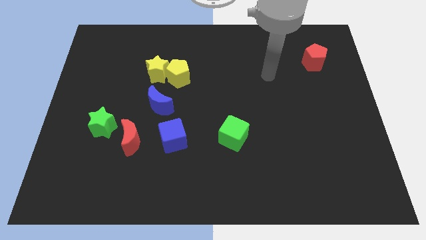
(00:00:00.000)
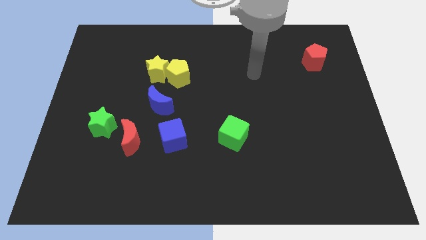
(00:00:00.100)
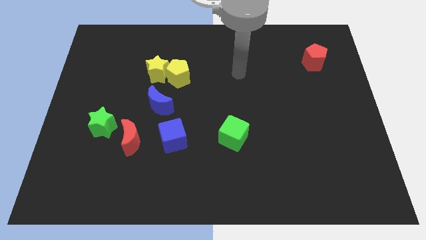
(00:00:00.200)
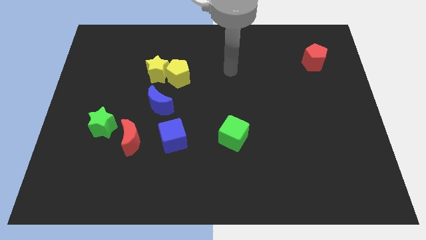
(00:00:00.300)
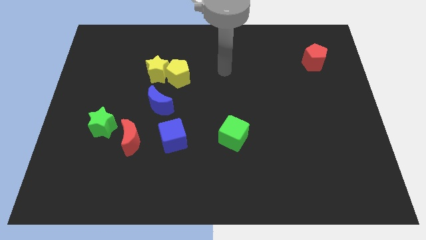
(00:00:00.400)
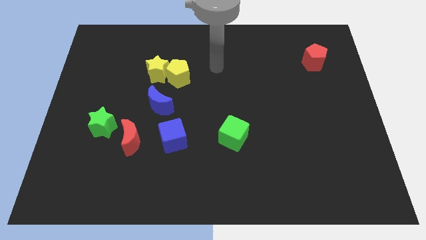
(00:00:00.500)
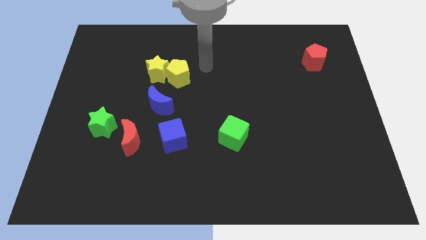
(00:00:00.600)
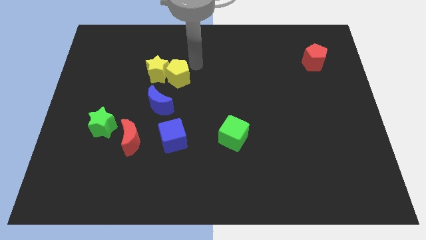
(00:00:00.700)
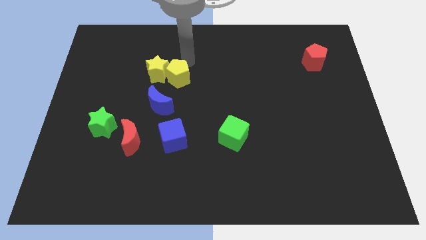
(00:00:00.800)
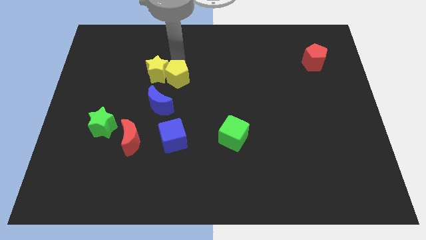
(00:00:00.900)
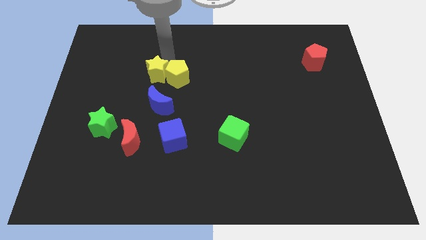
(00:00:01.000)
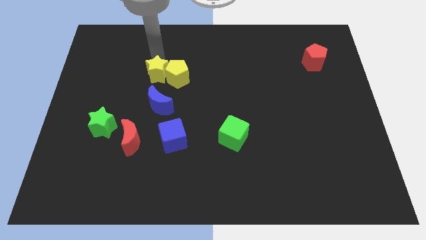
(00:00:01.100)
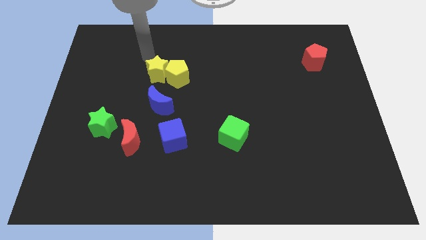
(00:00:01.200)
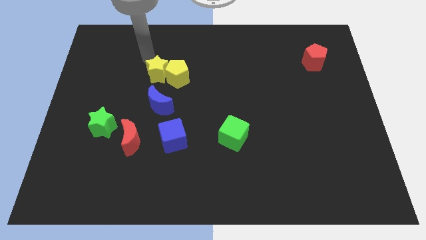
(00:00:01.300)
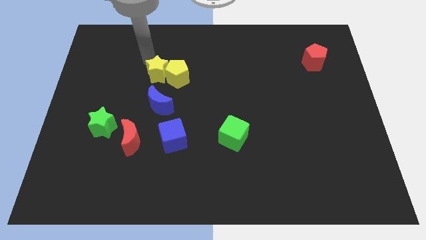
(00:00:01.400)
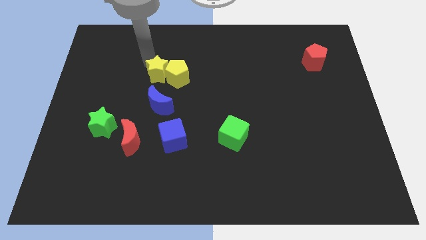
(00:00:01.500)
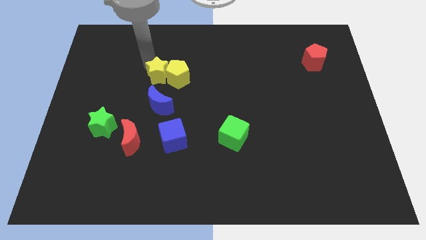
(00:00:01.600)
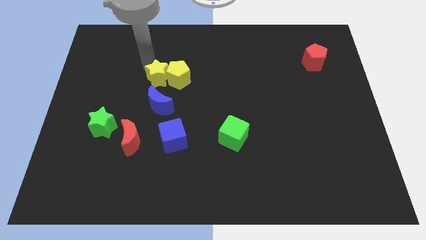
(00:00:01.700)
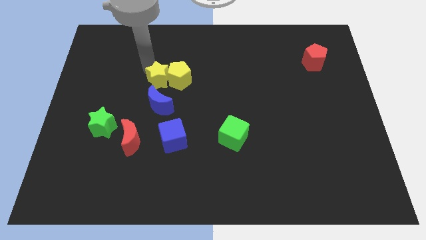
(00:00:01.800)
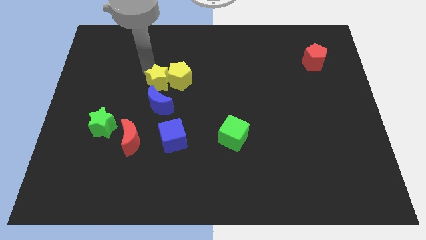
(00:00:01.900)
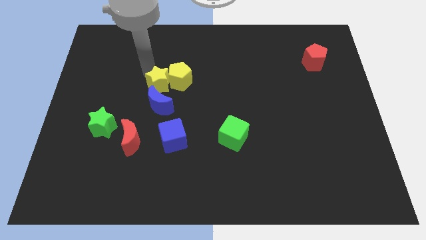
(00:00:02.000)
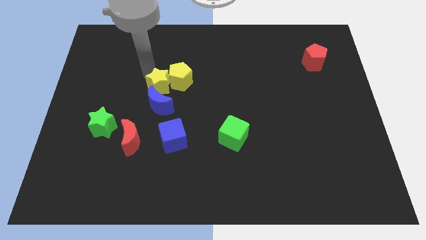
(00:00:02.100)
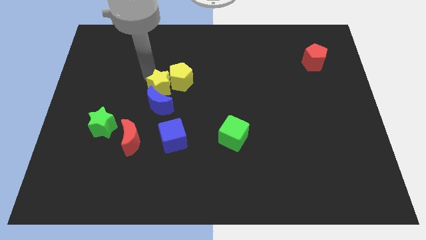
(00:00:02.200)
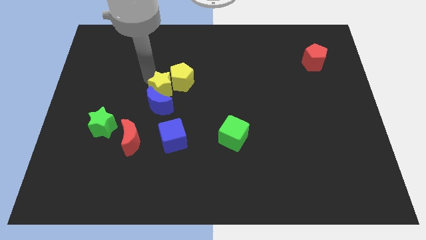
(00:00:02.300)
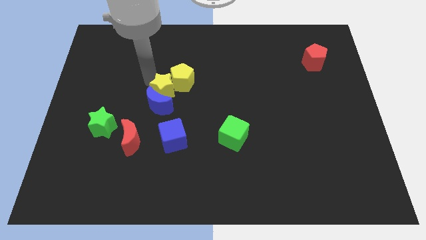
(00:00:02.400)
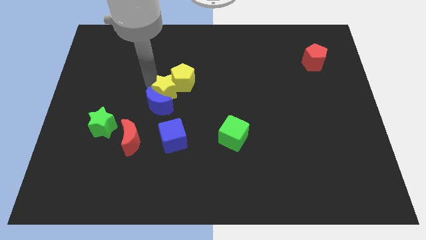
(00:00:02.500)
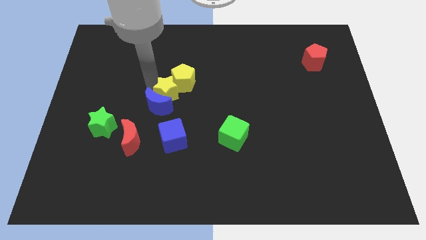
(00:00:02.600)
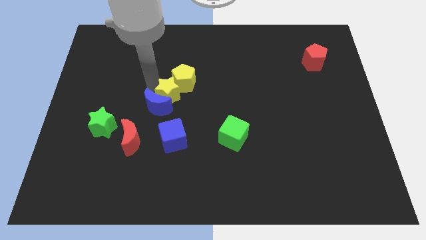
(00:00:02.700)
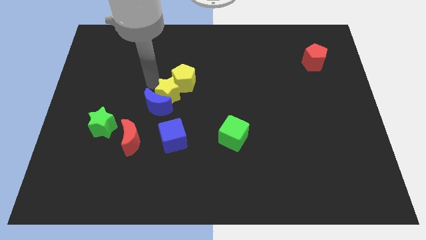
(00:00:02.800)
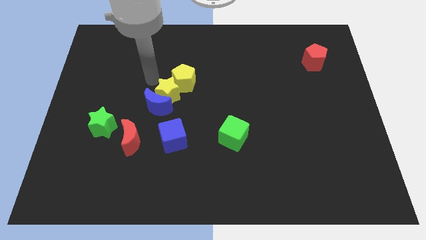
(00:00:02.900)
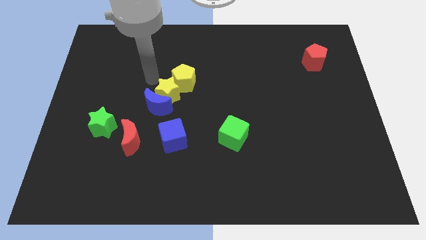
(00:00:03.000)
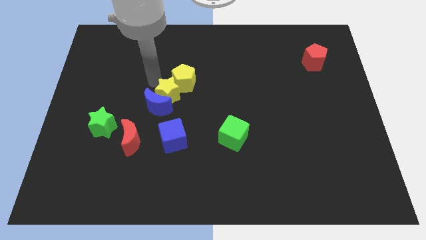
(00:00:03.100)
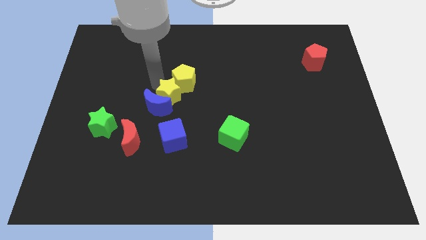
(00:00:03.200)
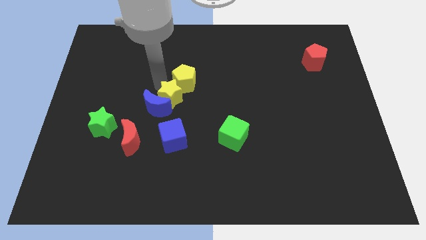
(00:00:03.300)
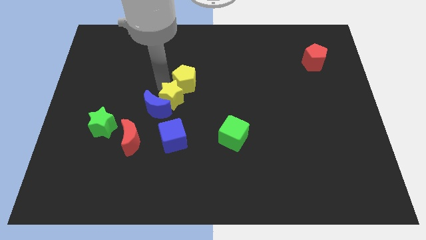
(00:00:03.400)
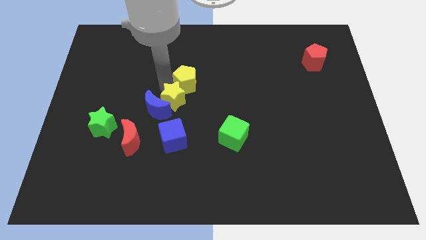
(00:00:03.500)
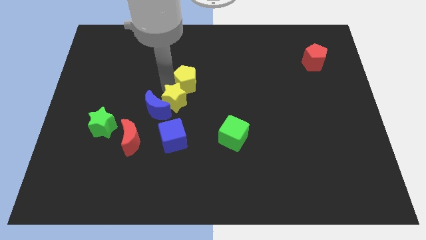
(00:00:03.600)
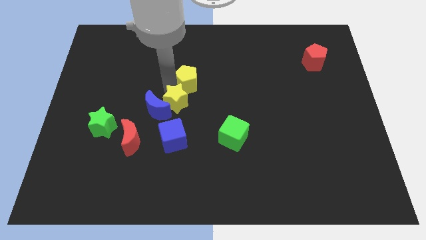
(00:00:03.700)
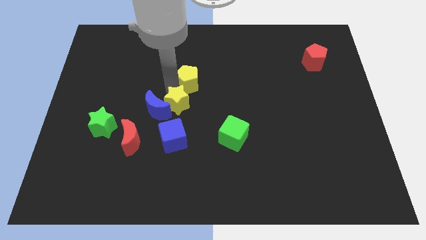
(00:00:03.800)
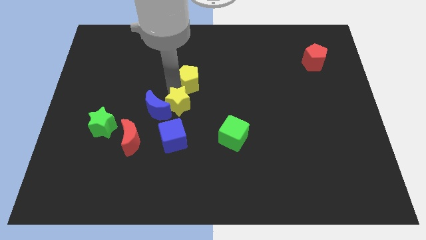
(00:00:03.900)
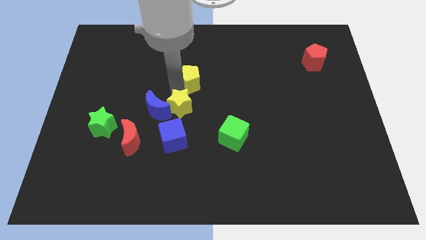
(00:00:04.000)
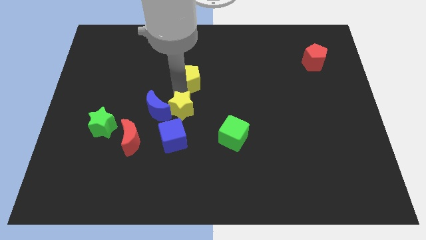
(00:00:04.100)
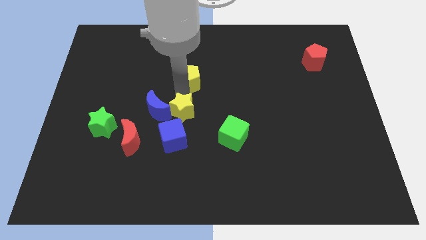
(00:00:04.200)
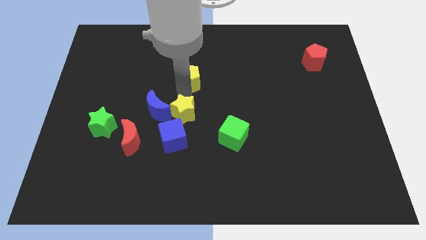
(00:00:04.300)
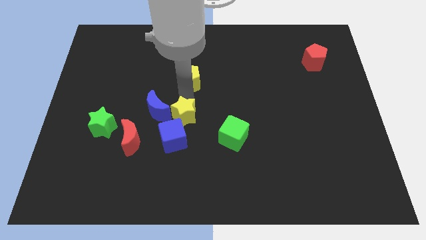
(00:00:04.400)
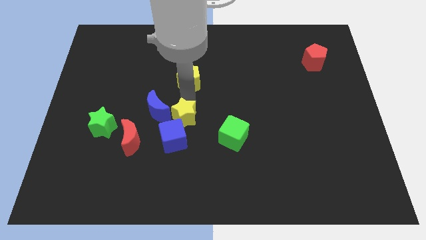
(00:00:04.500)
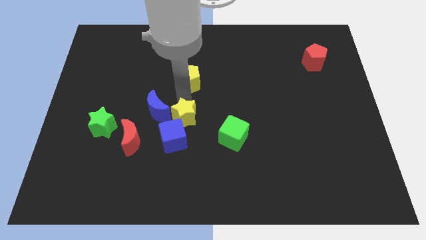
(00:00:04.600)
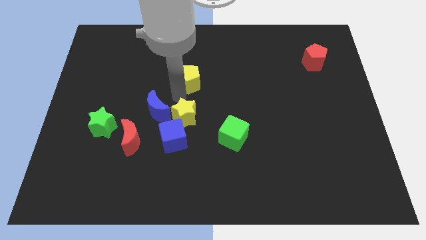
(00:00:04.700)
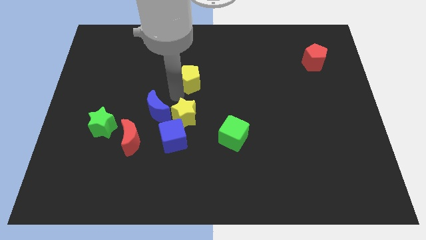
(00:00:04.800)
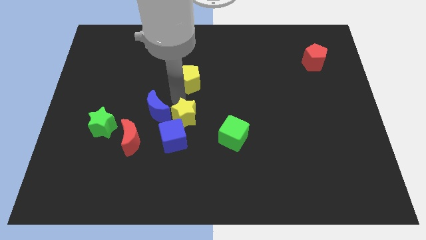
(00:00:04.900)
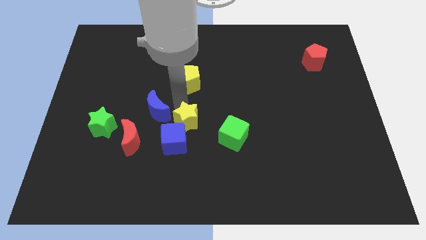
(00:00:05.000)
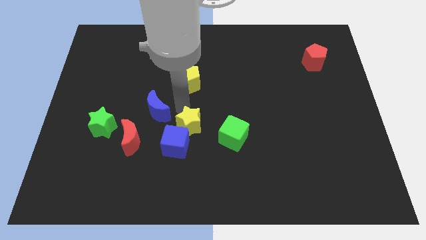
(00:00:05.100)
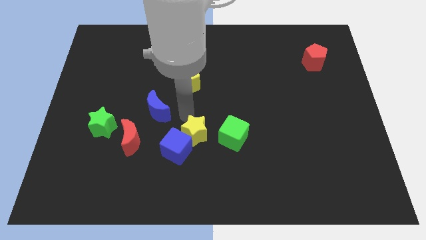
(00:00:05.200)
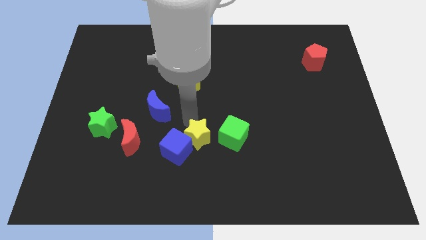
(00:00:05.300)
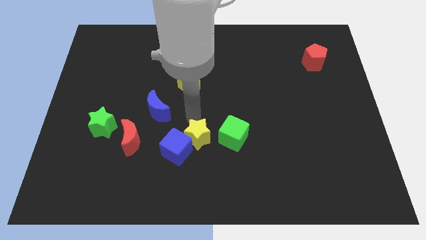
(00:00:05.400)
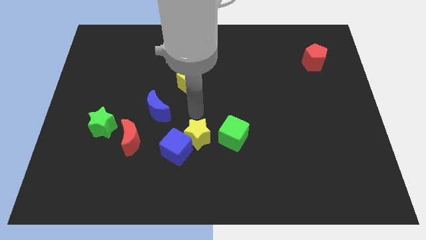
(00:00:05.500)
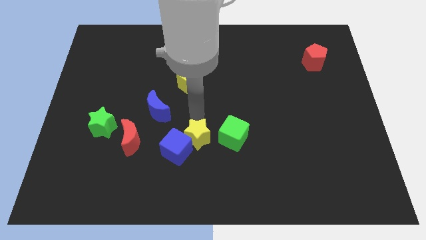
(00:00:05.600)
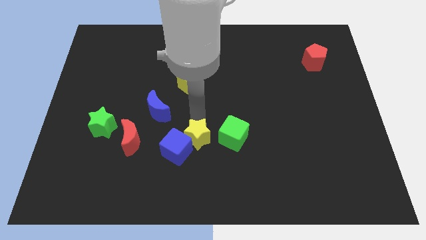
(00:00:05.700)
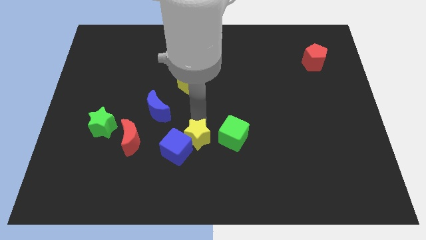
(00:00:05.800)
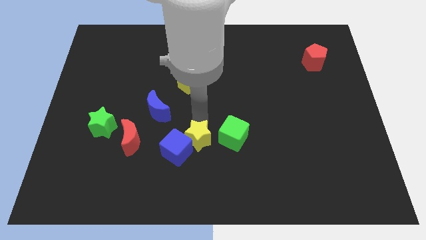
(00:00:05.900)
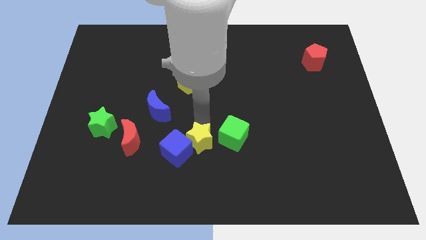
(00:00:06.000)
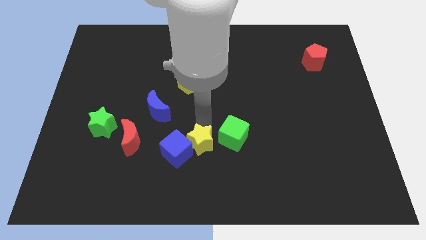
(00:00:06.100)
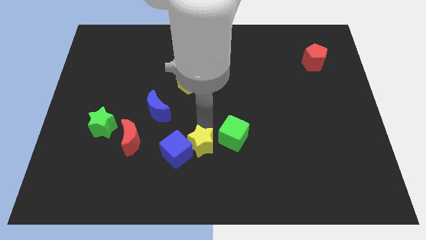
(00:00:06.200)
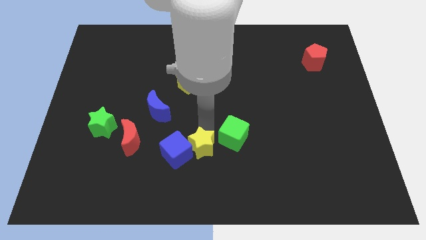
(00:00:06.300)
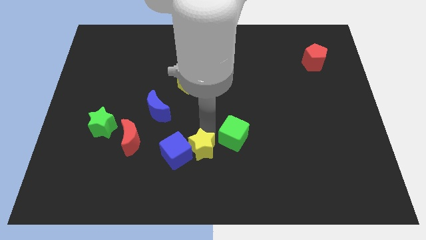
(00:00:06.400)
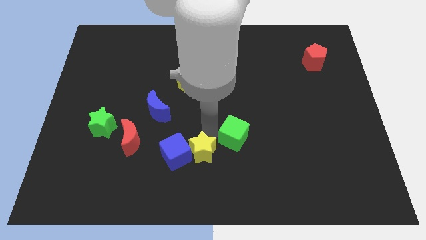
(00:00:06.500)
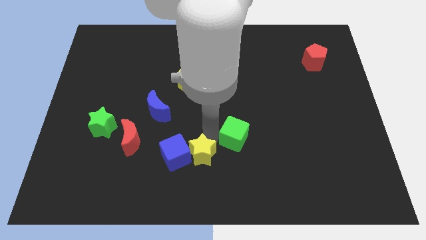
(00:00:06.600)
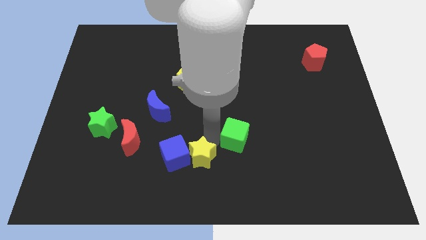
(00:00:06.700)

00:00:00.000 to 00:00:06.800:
push the yellow star to the bottom side

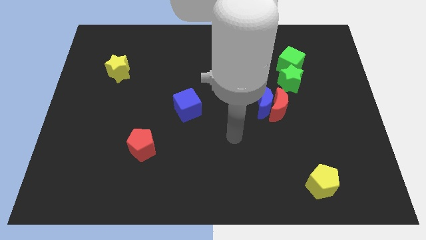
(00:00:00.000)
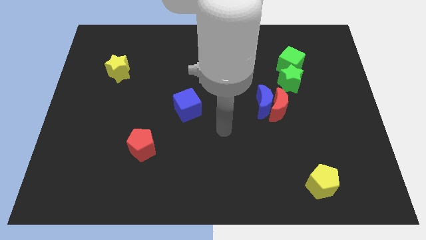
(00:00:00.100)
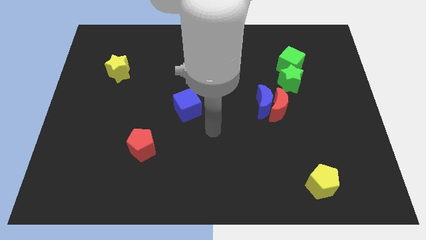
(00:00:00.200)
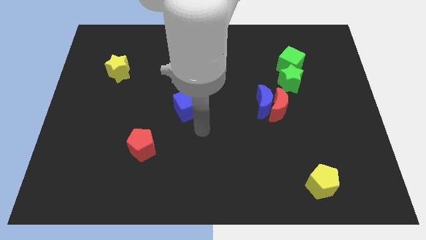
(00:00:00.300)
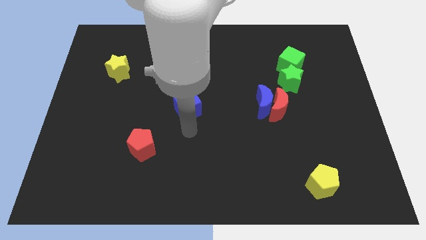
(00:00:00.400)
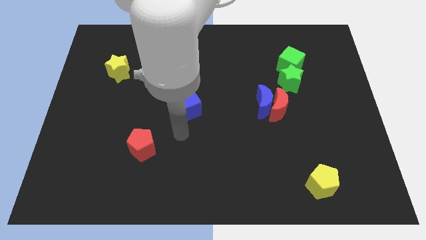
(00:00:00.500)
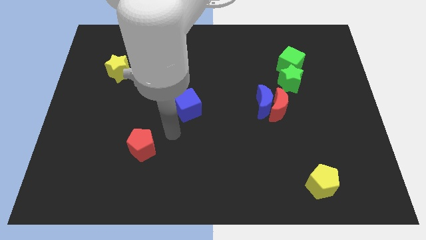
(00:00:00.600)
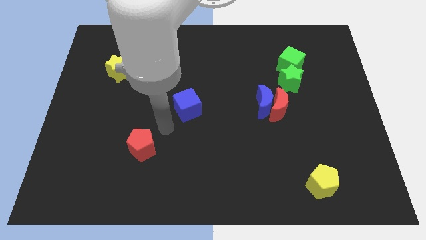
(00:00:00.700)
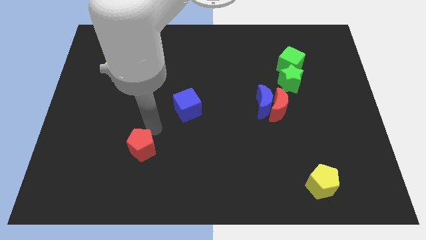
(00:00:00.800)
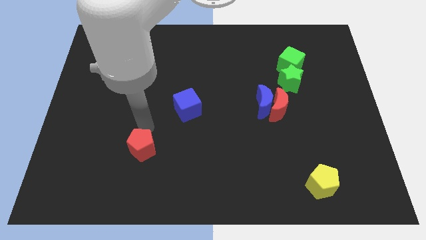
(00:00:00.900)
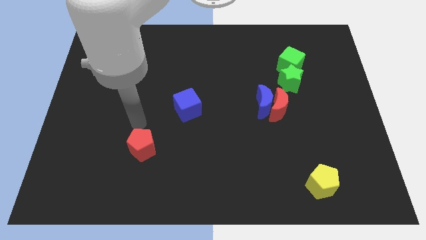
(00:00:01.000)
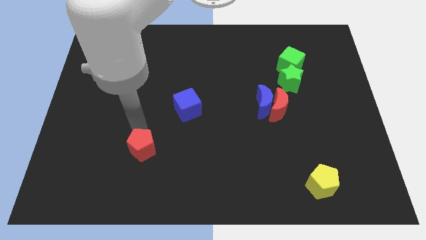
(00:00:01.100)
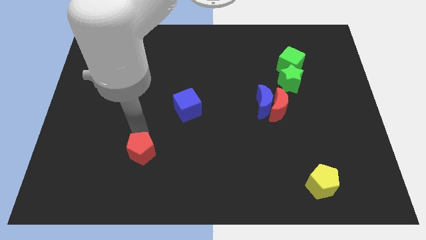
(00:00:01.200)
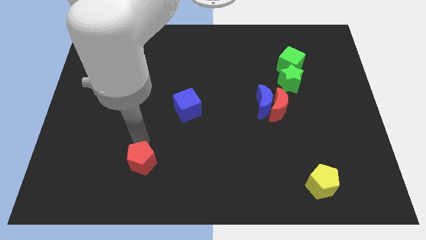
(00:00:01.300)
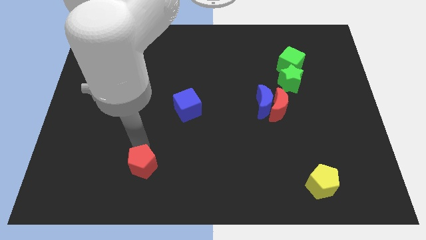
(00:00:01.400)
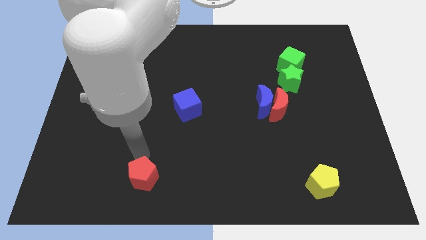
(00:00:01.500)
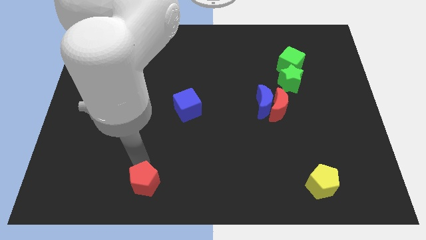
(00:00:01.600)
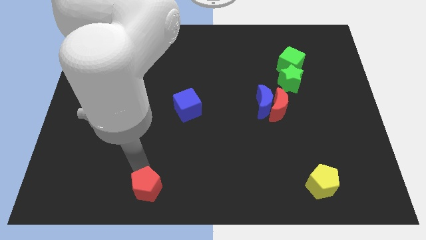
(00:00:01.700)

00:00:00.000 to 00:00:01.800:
slide the red pentagon to the bottom side
